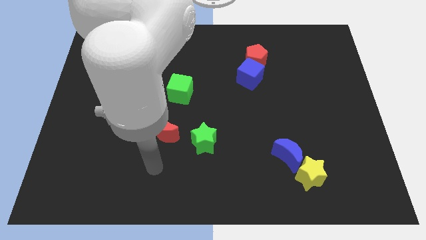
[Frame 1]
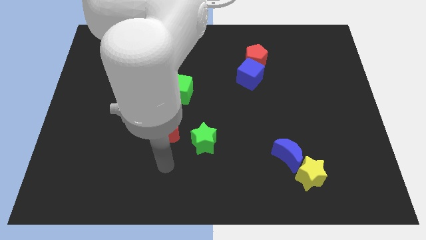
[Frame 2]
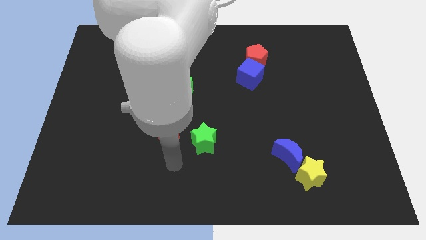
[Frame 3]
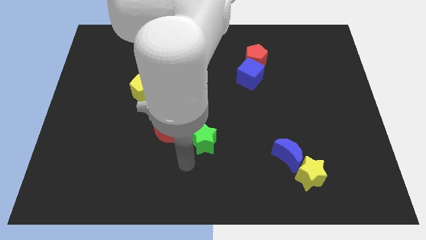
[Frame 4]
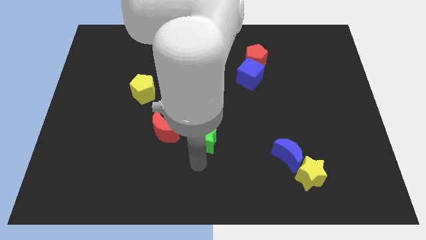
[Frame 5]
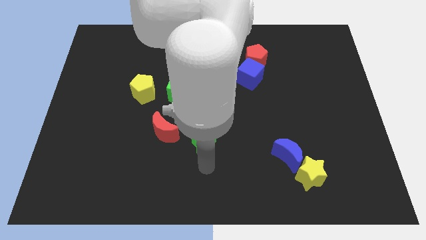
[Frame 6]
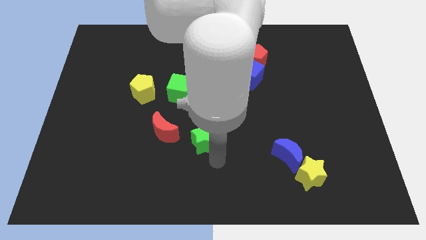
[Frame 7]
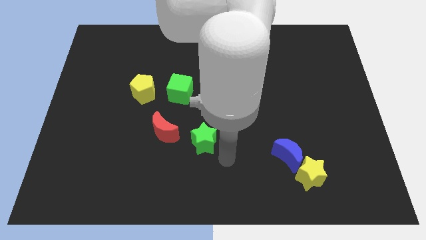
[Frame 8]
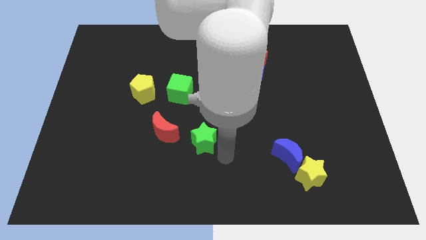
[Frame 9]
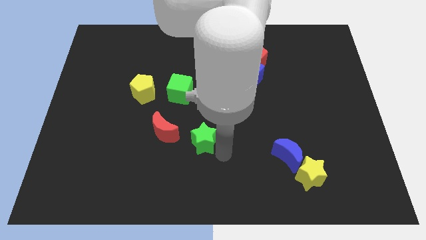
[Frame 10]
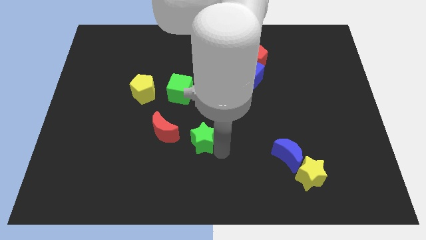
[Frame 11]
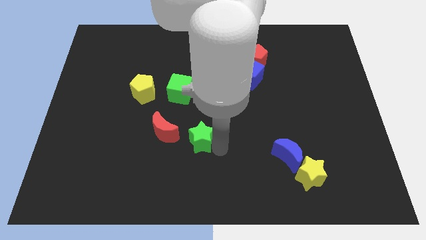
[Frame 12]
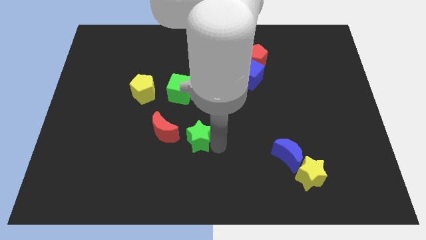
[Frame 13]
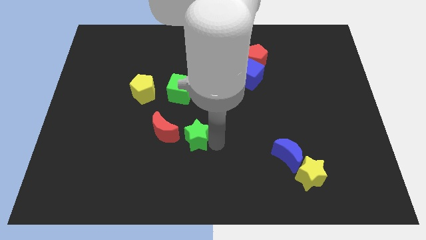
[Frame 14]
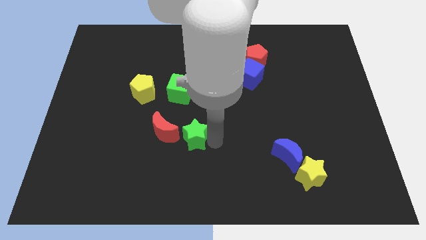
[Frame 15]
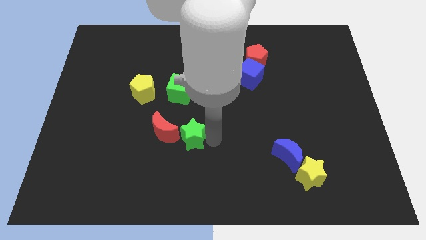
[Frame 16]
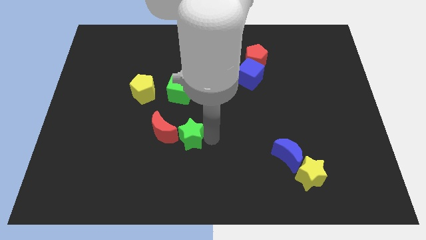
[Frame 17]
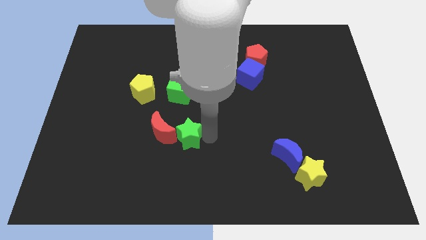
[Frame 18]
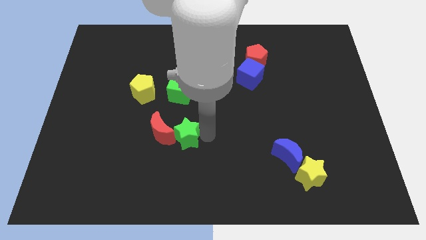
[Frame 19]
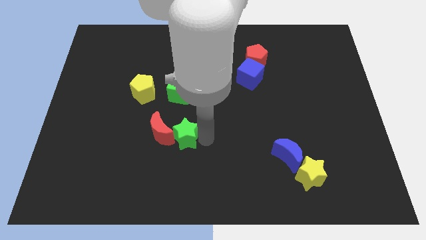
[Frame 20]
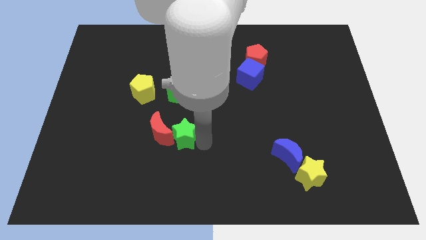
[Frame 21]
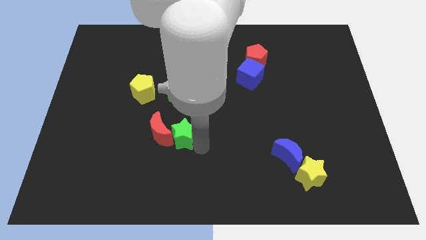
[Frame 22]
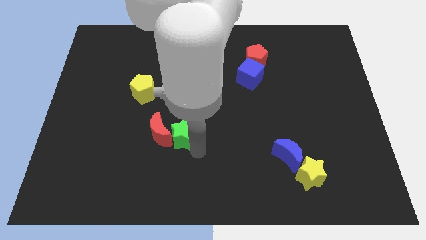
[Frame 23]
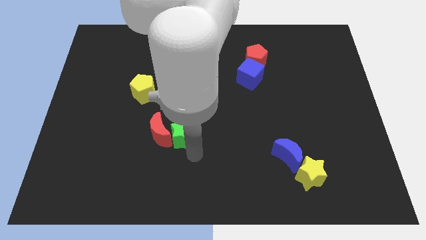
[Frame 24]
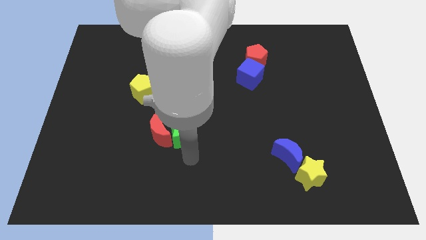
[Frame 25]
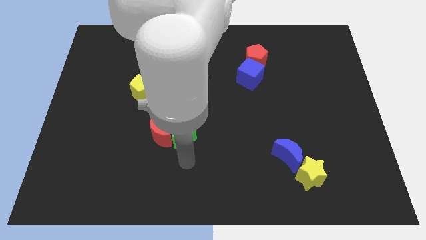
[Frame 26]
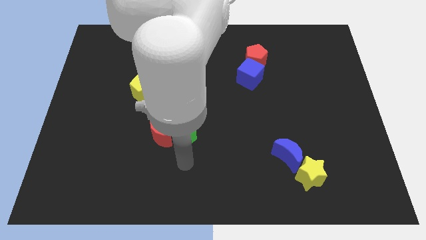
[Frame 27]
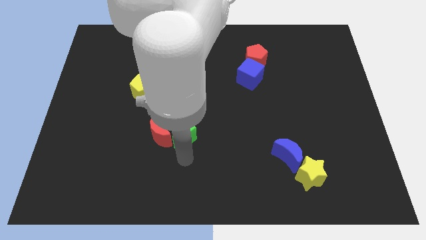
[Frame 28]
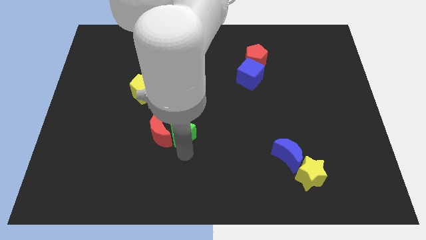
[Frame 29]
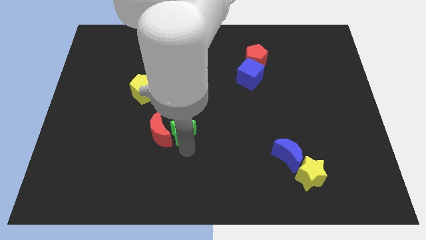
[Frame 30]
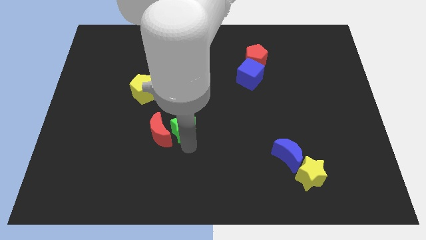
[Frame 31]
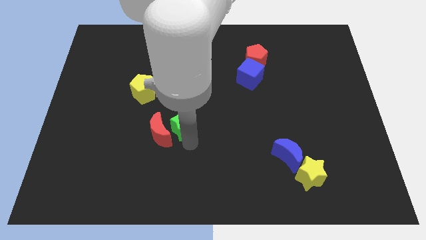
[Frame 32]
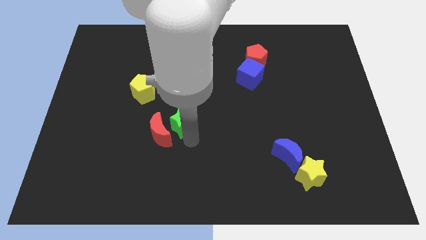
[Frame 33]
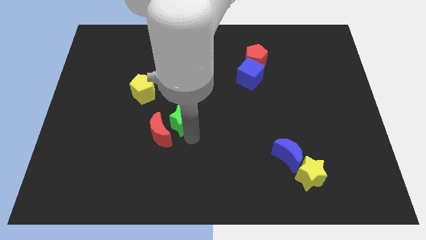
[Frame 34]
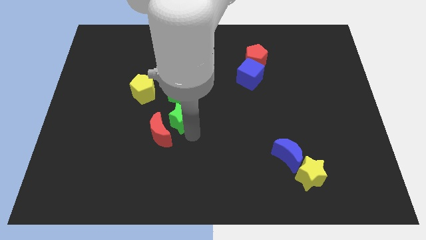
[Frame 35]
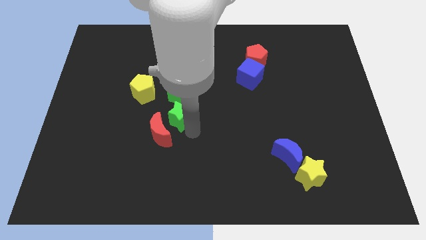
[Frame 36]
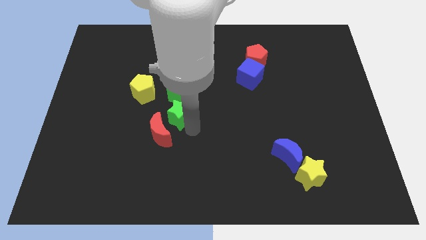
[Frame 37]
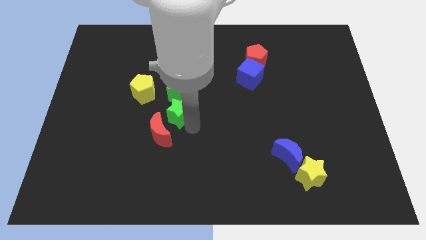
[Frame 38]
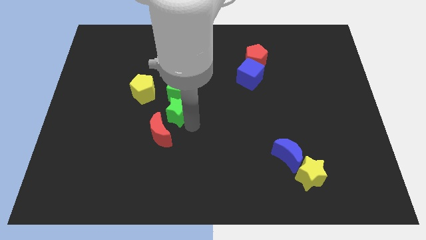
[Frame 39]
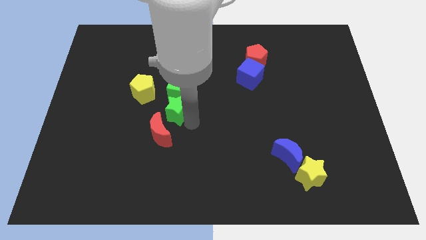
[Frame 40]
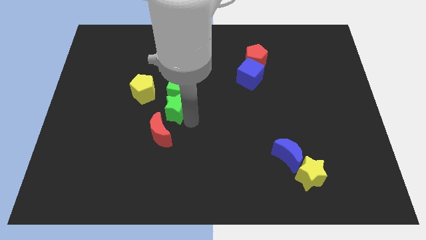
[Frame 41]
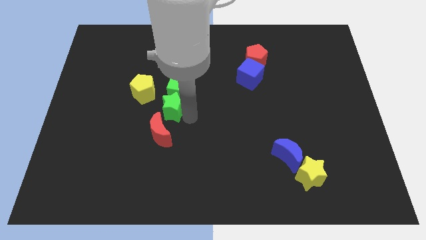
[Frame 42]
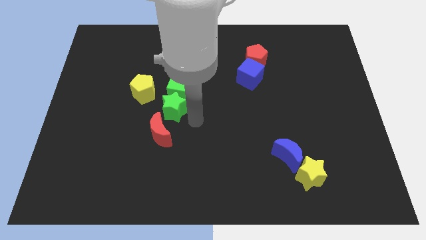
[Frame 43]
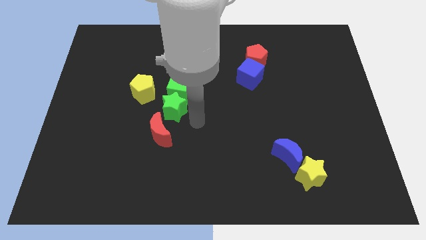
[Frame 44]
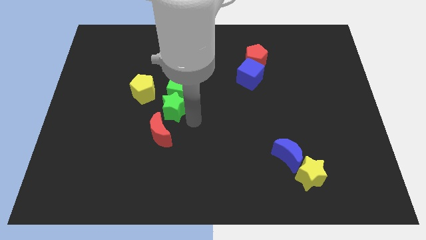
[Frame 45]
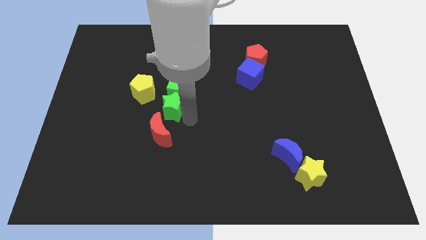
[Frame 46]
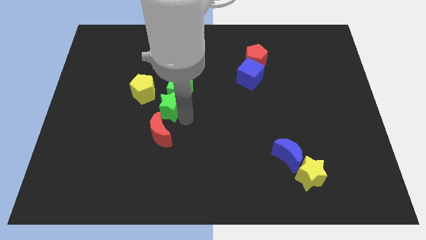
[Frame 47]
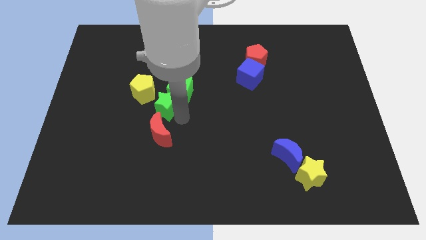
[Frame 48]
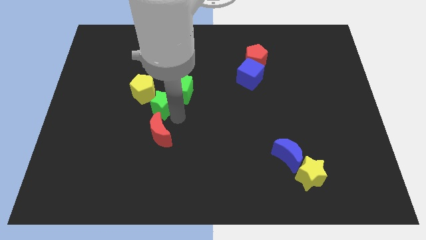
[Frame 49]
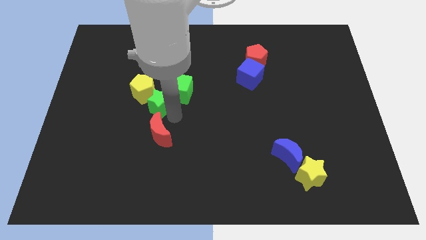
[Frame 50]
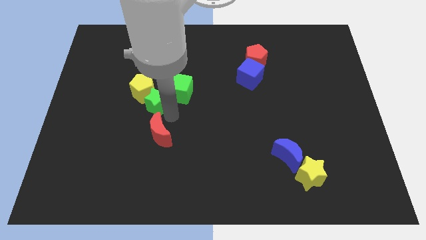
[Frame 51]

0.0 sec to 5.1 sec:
slide the green star close to the yellow pentagon

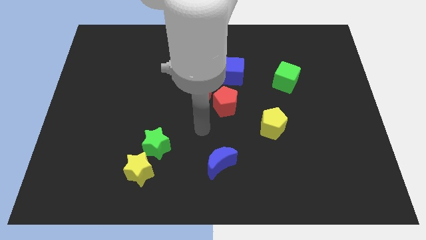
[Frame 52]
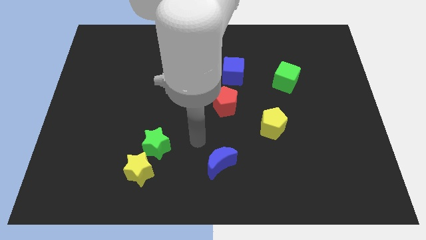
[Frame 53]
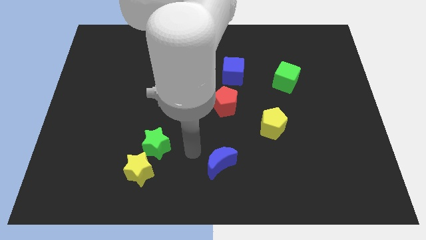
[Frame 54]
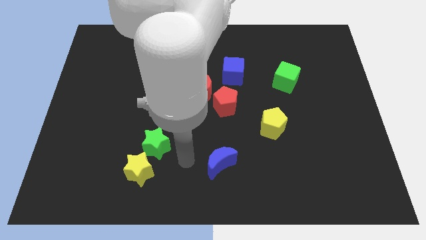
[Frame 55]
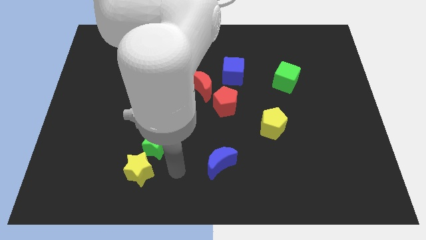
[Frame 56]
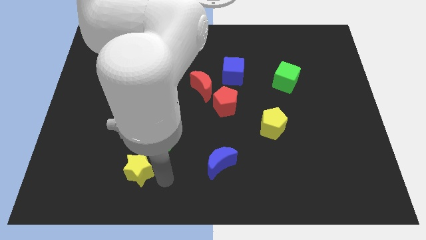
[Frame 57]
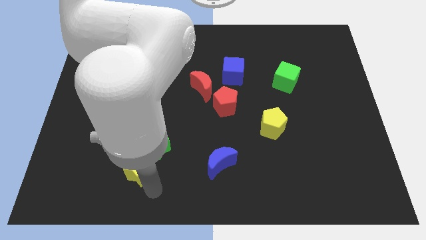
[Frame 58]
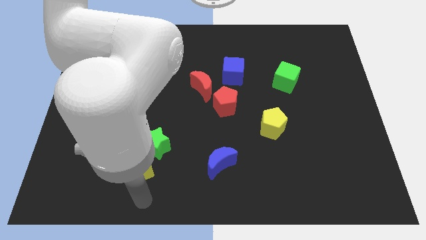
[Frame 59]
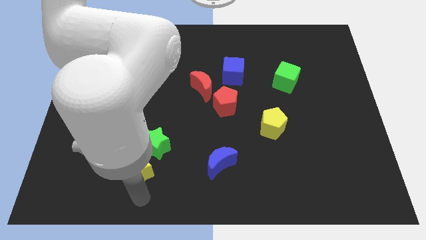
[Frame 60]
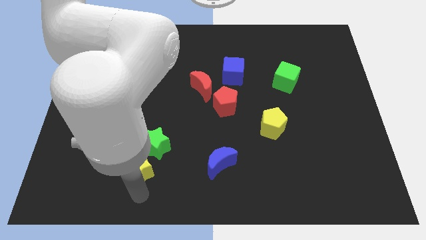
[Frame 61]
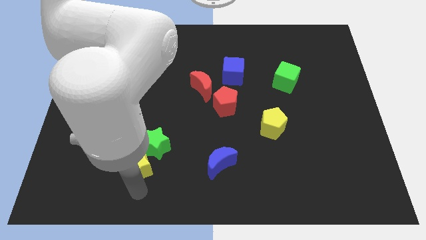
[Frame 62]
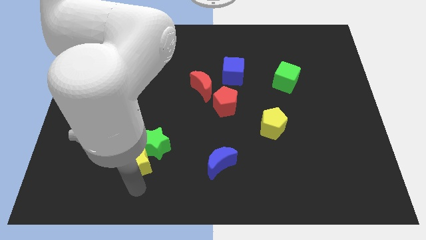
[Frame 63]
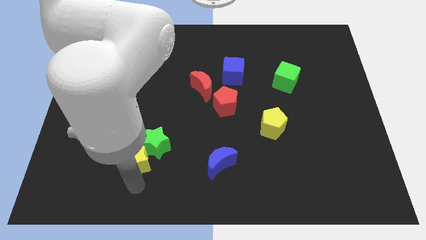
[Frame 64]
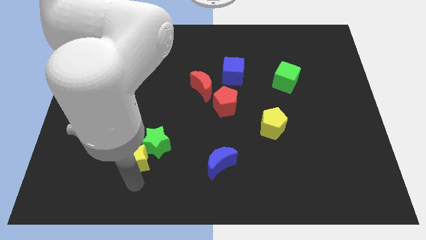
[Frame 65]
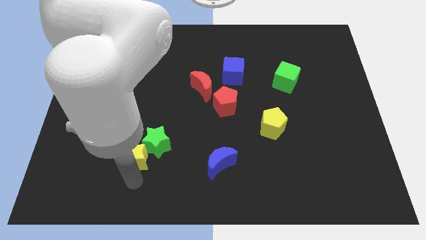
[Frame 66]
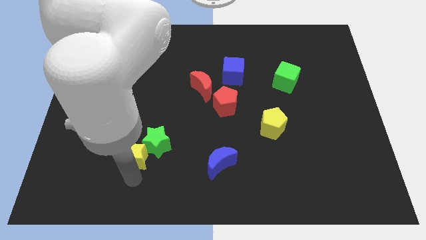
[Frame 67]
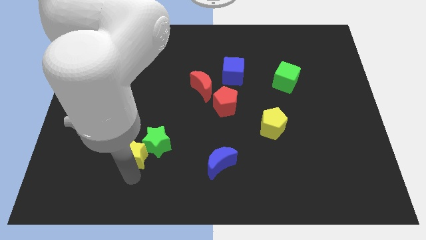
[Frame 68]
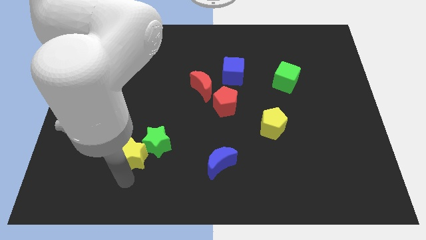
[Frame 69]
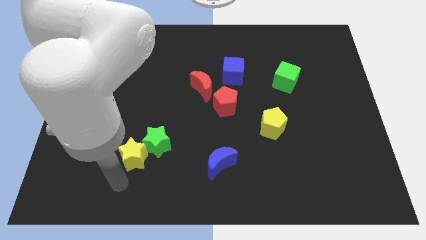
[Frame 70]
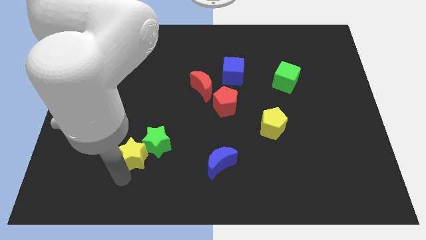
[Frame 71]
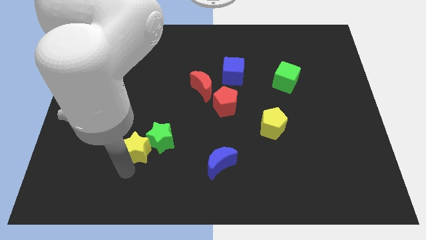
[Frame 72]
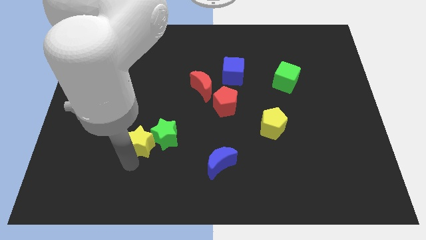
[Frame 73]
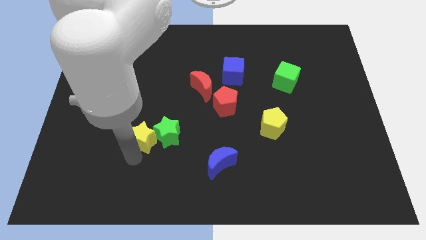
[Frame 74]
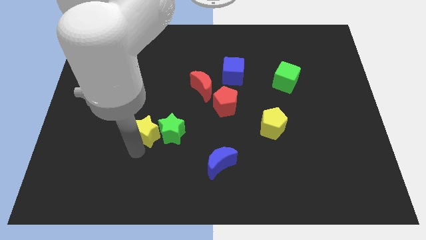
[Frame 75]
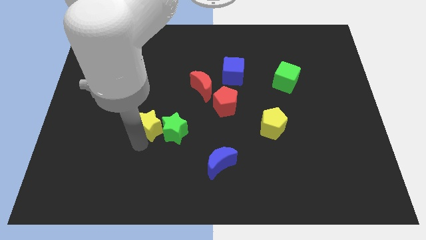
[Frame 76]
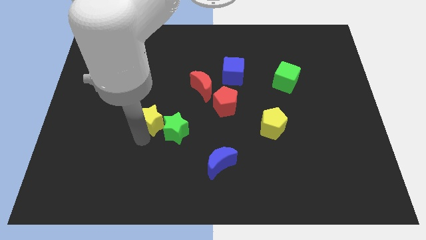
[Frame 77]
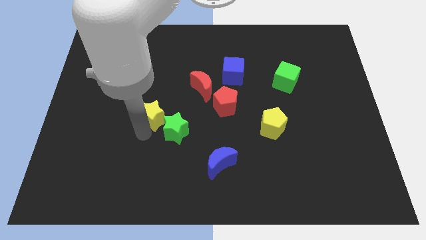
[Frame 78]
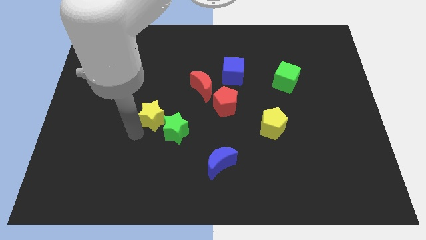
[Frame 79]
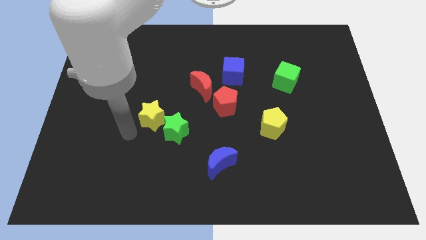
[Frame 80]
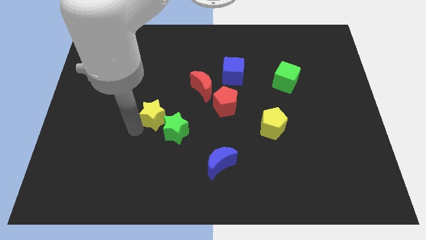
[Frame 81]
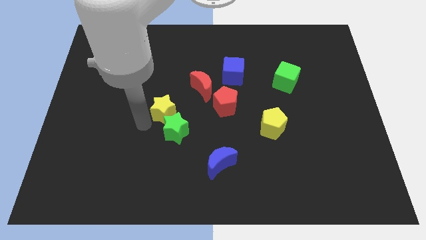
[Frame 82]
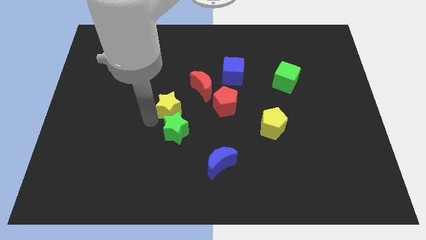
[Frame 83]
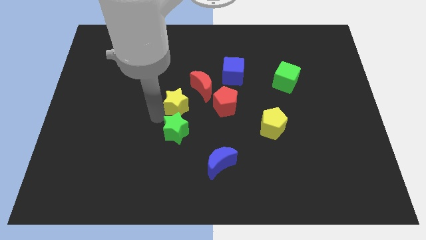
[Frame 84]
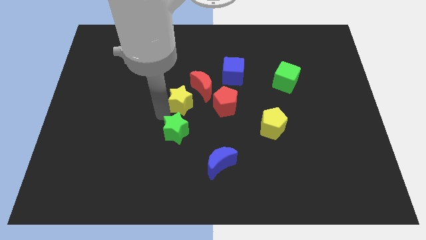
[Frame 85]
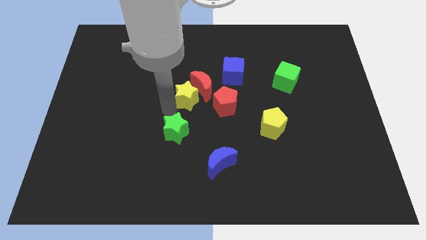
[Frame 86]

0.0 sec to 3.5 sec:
slide the yellow star towards the red moon
